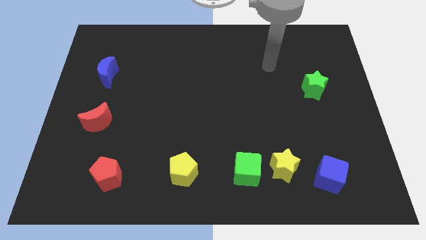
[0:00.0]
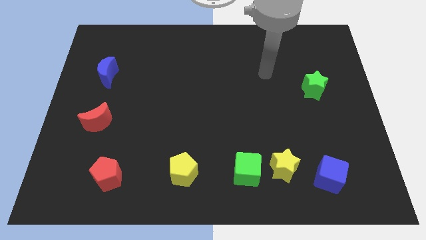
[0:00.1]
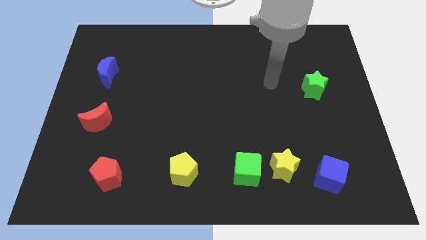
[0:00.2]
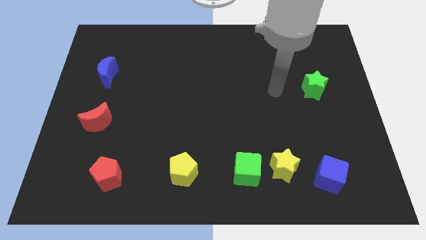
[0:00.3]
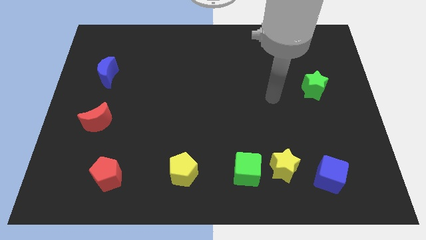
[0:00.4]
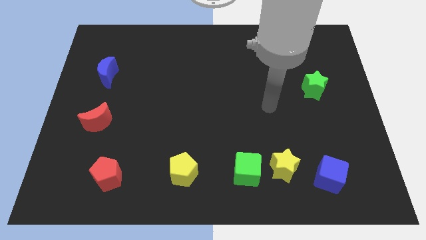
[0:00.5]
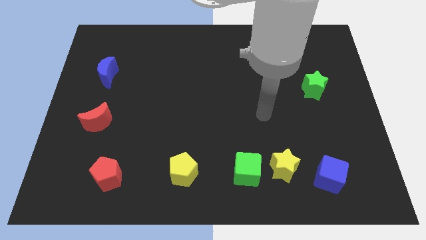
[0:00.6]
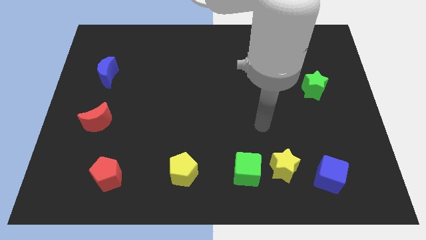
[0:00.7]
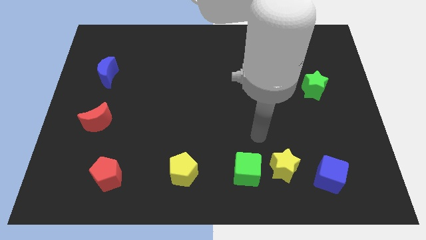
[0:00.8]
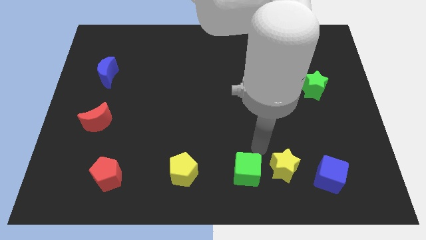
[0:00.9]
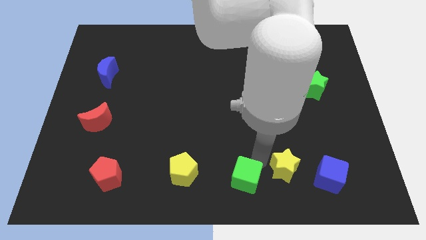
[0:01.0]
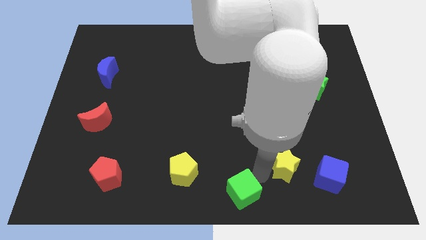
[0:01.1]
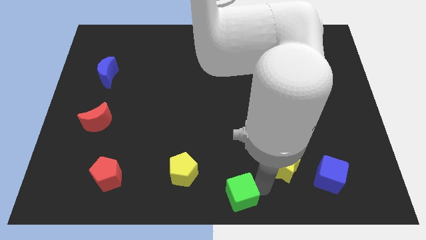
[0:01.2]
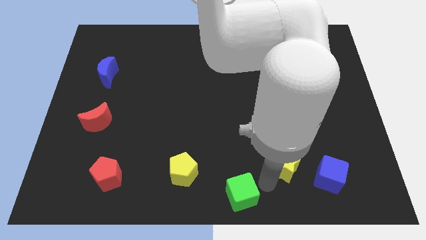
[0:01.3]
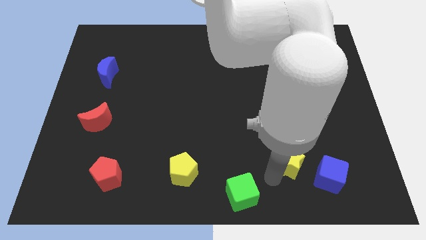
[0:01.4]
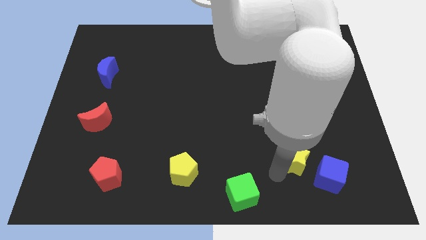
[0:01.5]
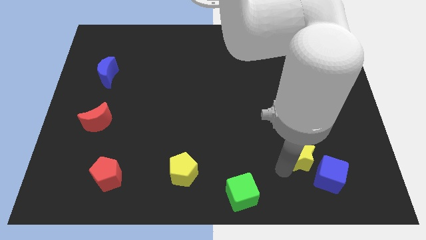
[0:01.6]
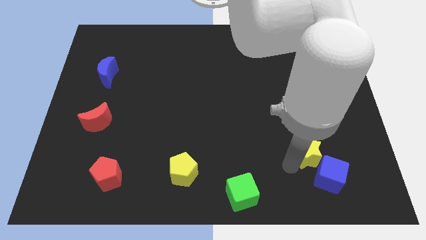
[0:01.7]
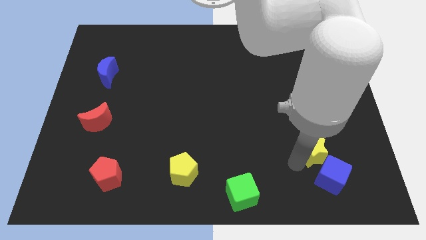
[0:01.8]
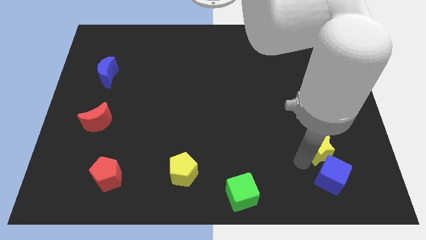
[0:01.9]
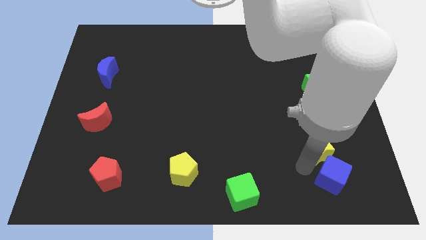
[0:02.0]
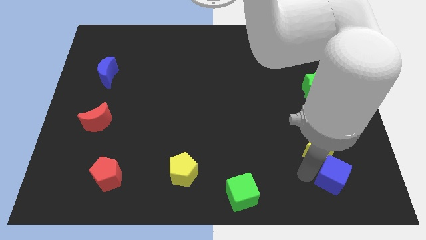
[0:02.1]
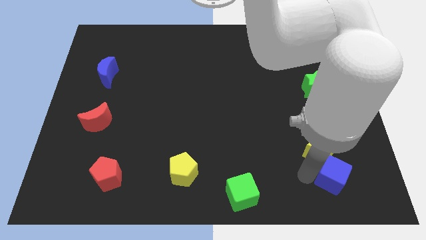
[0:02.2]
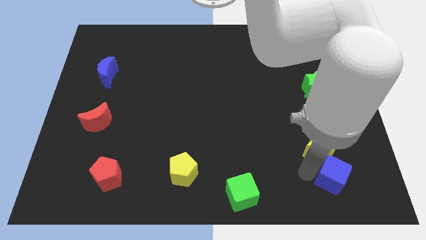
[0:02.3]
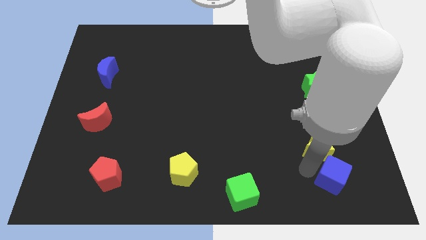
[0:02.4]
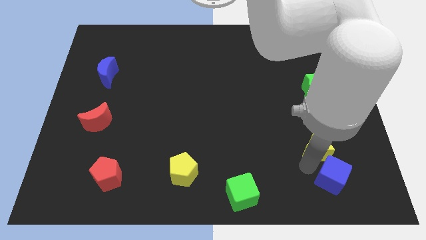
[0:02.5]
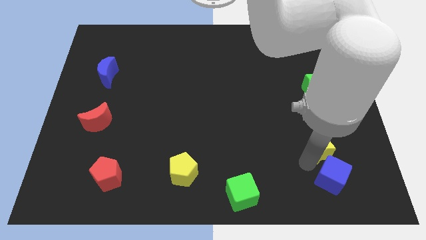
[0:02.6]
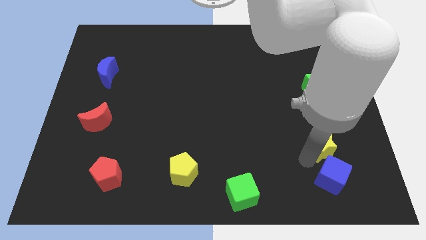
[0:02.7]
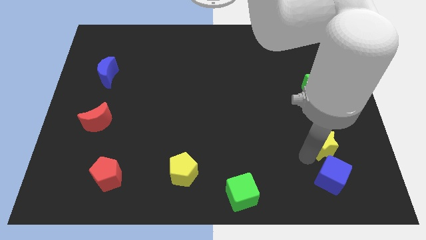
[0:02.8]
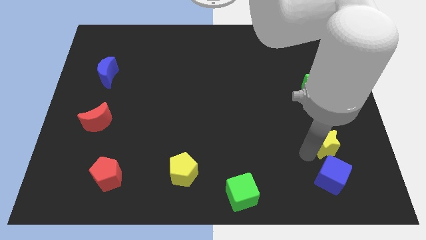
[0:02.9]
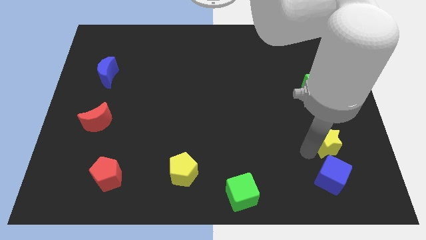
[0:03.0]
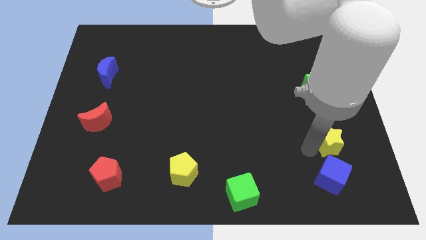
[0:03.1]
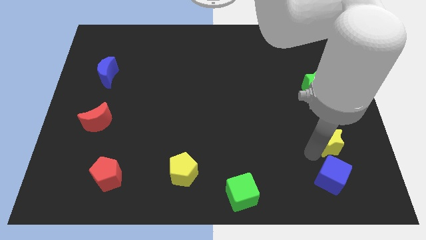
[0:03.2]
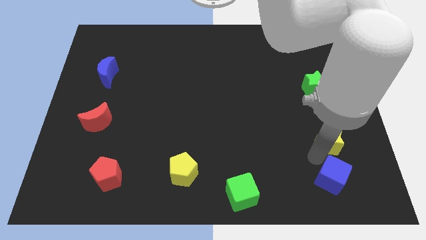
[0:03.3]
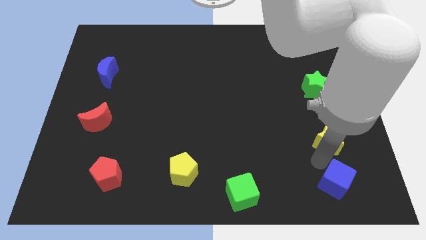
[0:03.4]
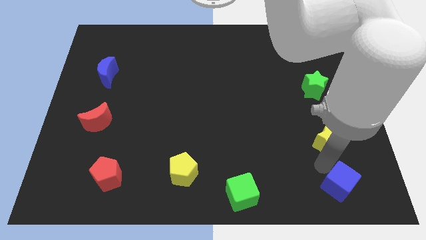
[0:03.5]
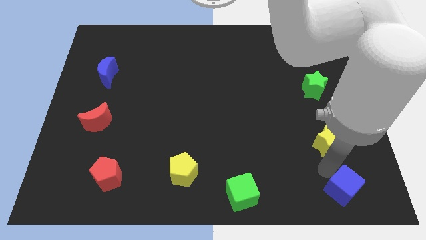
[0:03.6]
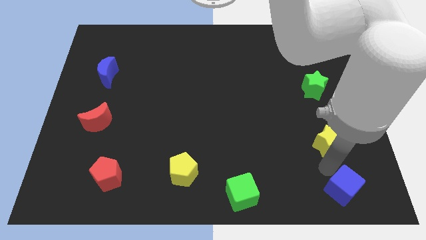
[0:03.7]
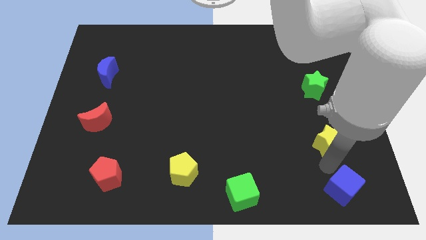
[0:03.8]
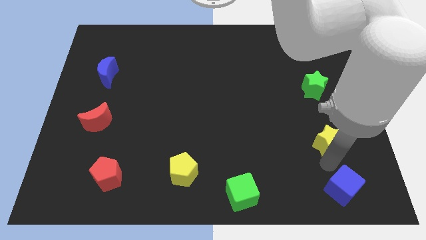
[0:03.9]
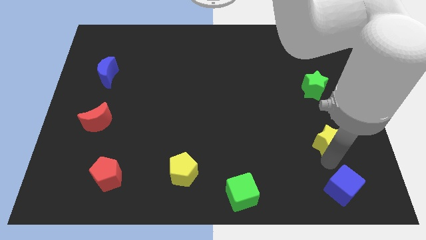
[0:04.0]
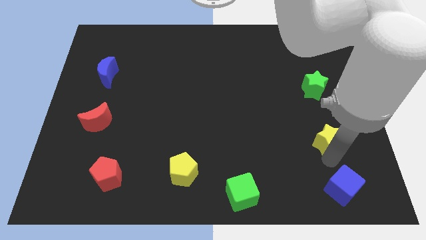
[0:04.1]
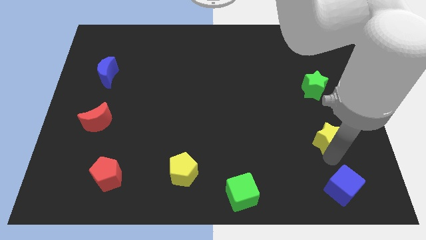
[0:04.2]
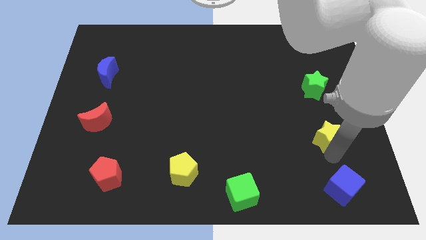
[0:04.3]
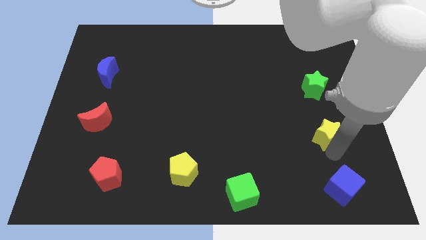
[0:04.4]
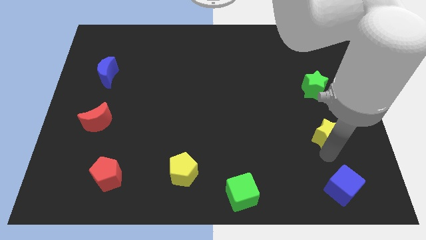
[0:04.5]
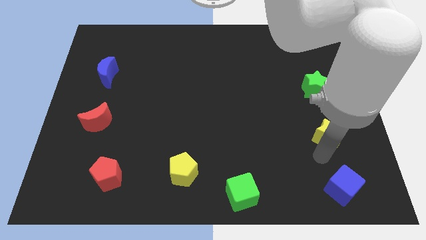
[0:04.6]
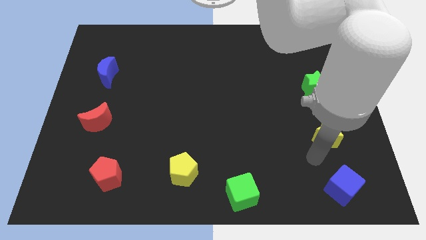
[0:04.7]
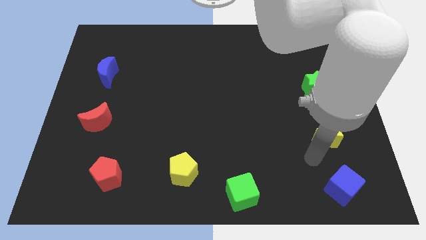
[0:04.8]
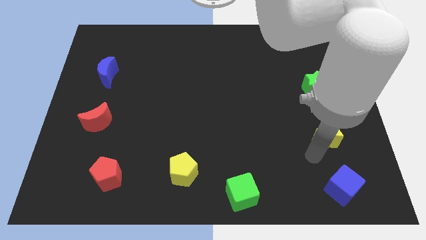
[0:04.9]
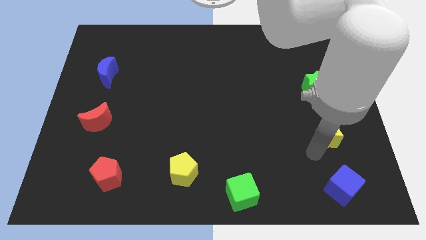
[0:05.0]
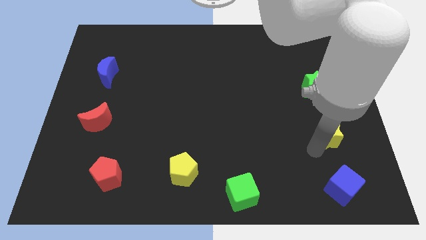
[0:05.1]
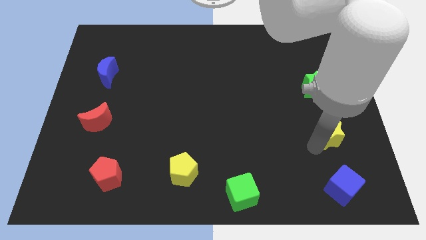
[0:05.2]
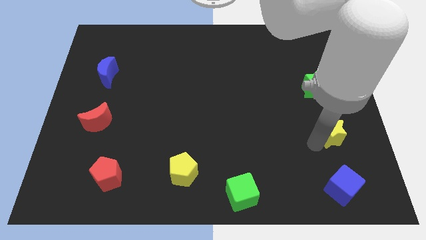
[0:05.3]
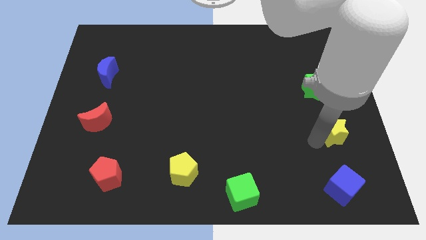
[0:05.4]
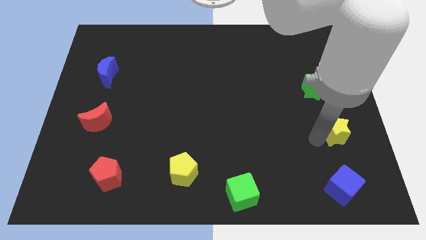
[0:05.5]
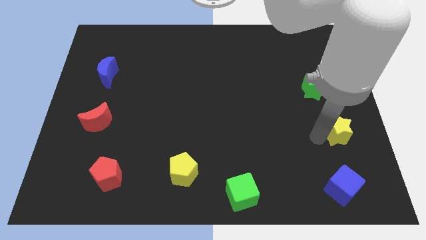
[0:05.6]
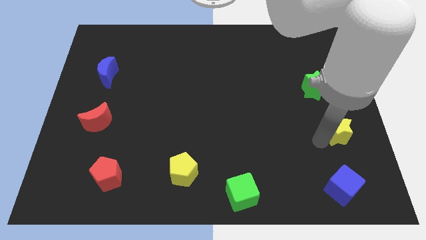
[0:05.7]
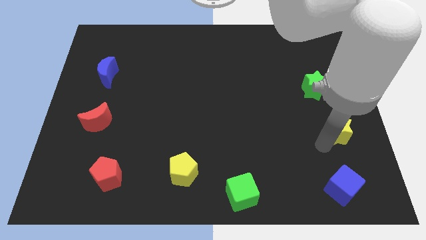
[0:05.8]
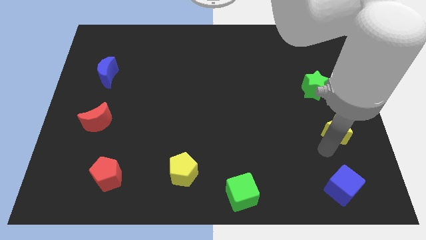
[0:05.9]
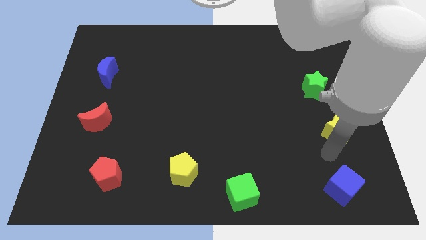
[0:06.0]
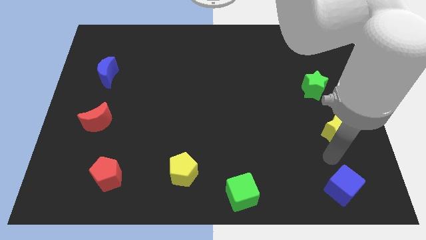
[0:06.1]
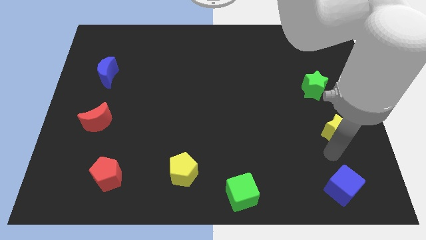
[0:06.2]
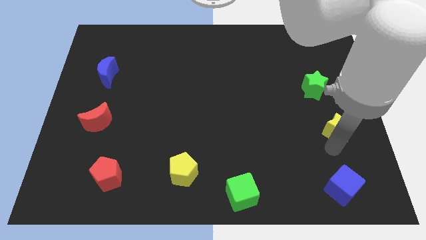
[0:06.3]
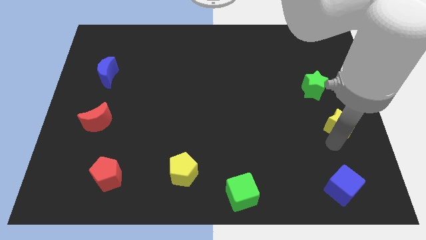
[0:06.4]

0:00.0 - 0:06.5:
move the yellow star to the center right

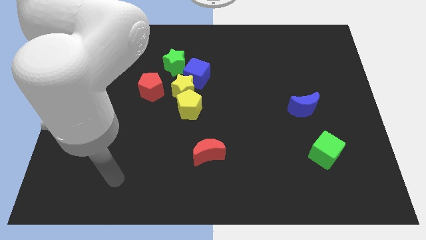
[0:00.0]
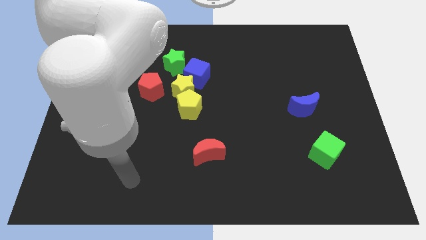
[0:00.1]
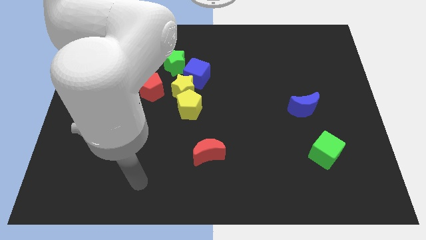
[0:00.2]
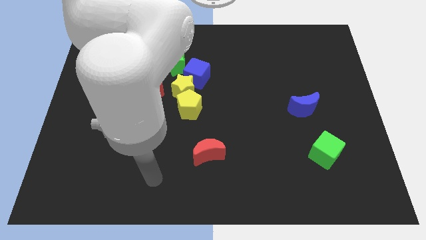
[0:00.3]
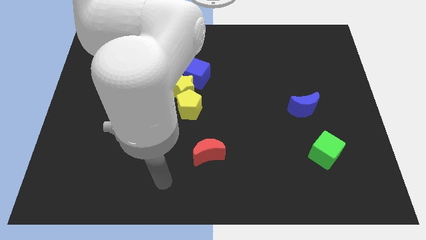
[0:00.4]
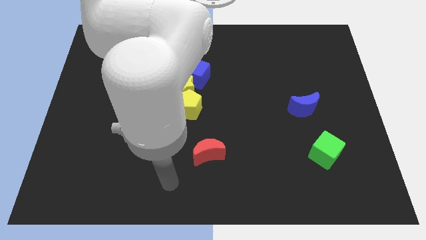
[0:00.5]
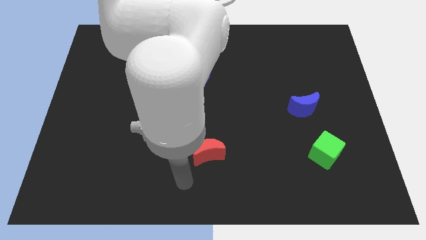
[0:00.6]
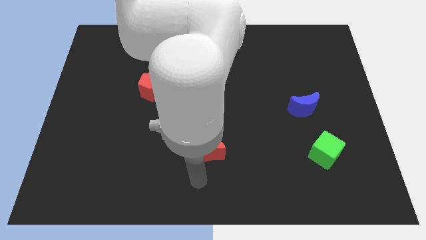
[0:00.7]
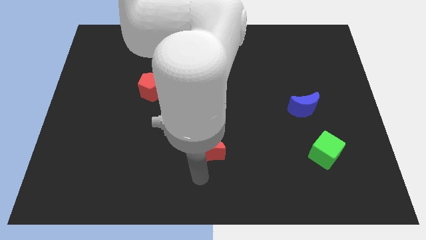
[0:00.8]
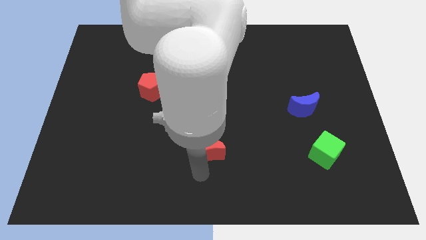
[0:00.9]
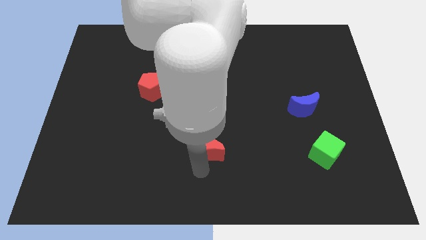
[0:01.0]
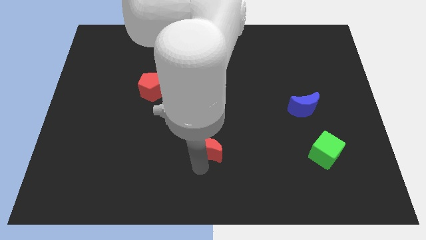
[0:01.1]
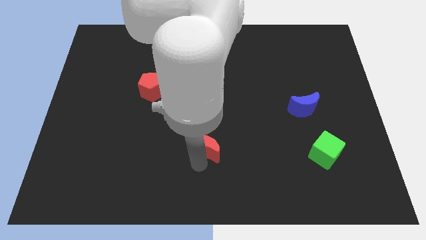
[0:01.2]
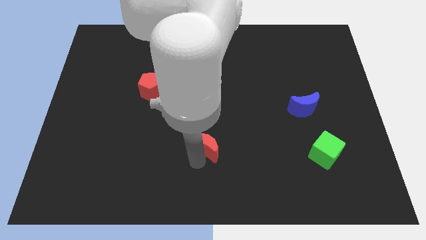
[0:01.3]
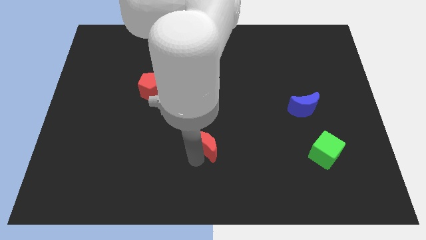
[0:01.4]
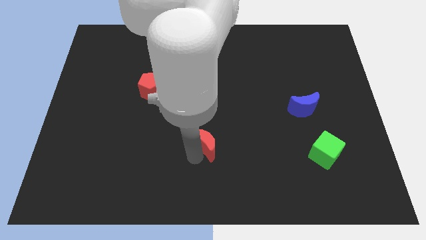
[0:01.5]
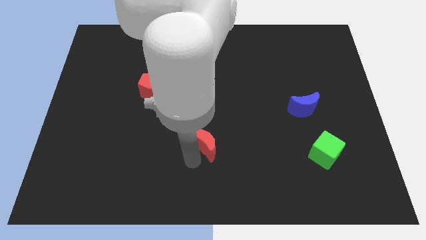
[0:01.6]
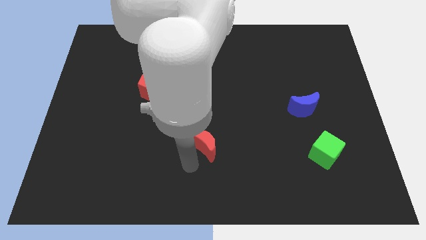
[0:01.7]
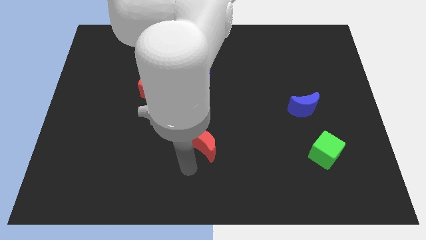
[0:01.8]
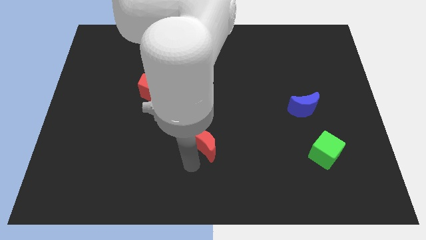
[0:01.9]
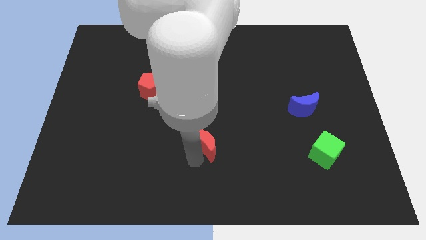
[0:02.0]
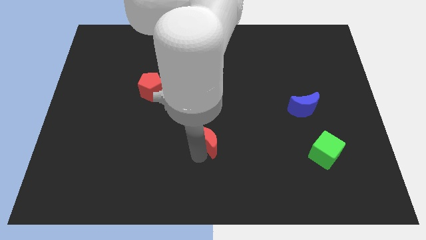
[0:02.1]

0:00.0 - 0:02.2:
push the red moon to the center
